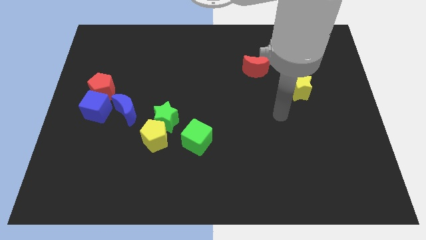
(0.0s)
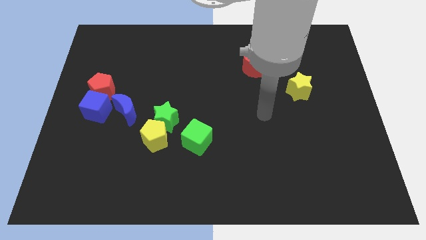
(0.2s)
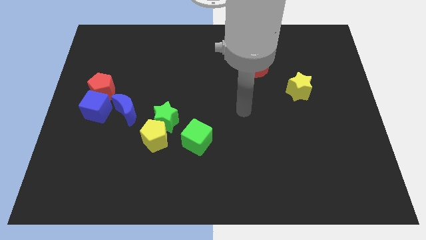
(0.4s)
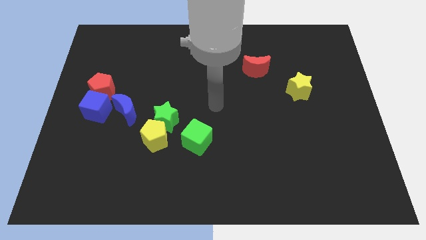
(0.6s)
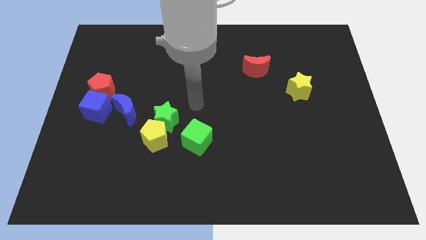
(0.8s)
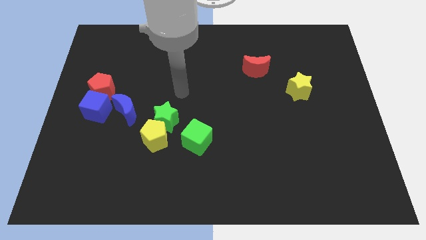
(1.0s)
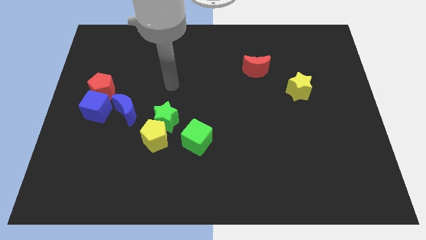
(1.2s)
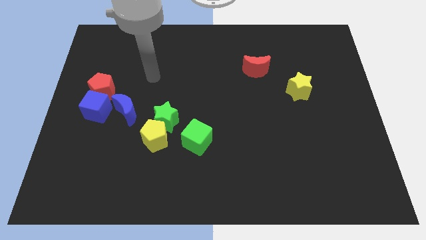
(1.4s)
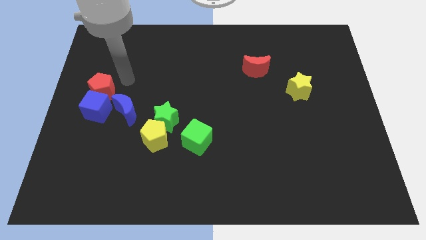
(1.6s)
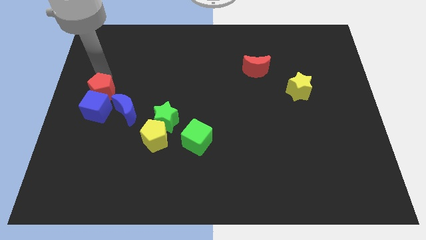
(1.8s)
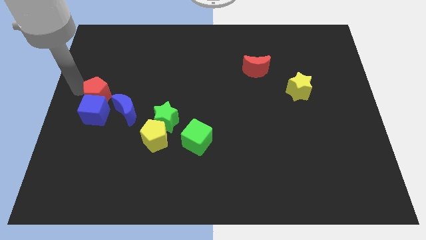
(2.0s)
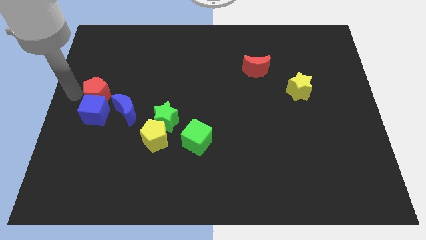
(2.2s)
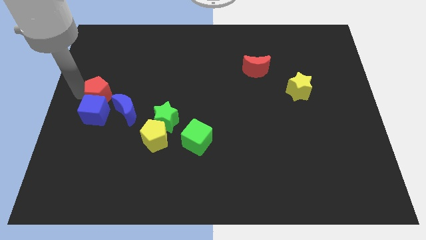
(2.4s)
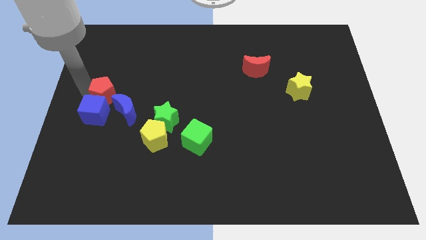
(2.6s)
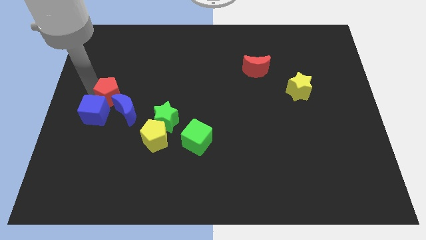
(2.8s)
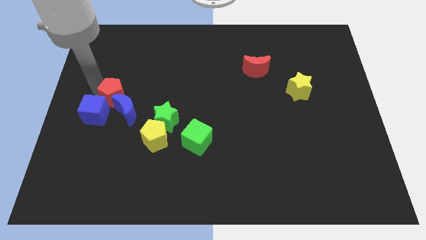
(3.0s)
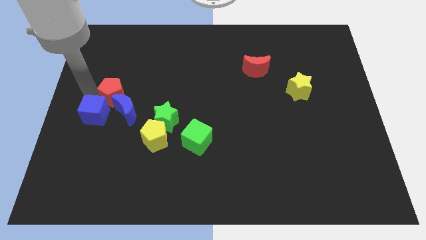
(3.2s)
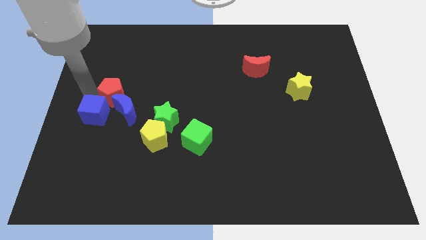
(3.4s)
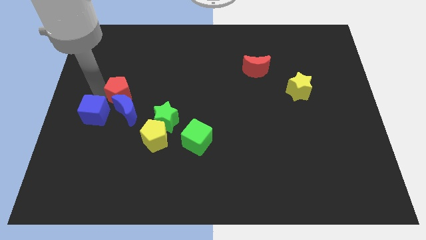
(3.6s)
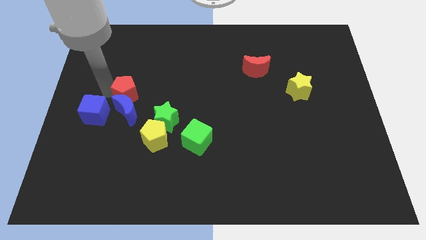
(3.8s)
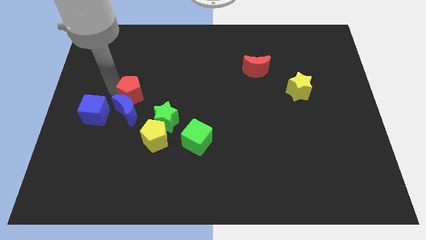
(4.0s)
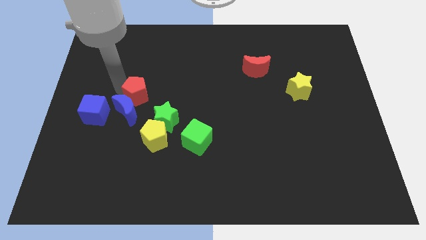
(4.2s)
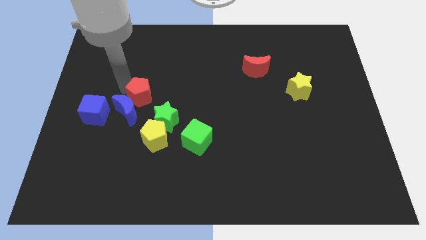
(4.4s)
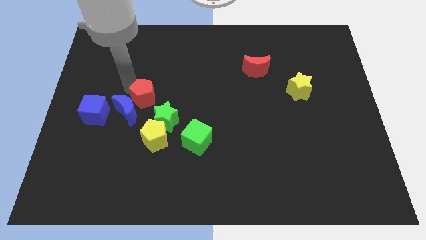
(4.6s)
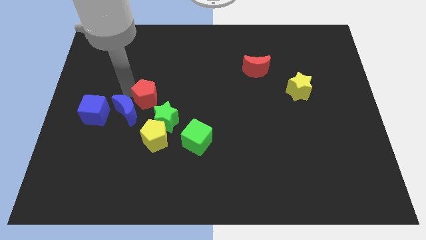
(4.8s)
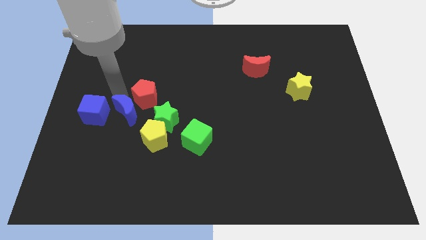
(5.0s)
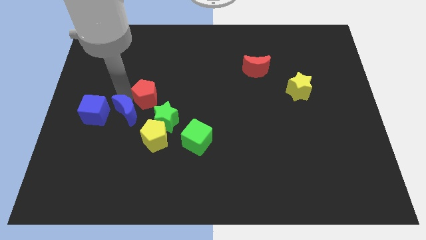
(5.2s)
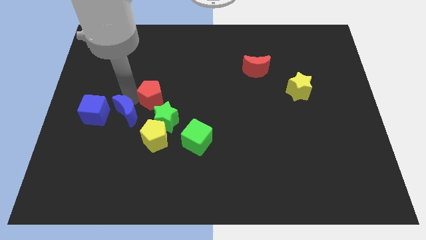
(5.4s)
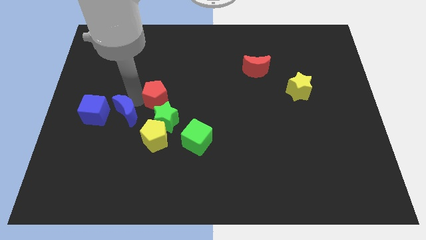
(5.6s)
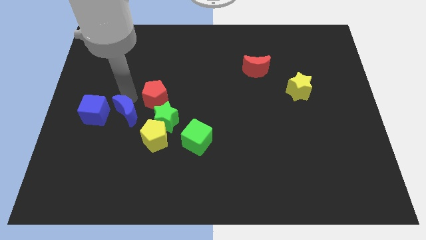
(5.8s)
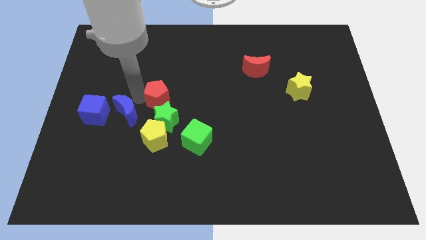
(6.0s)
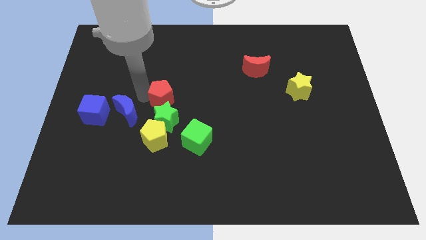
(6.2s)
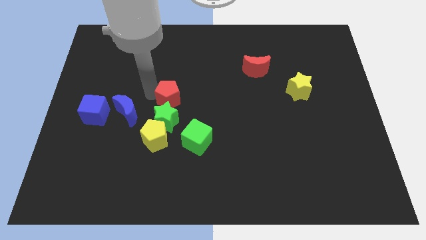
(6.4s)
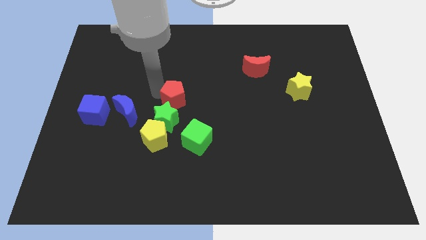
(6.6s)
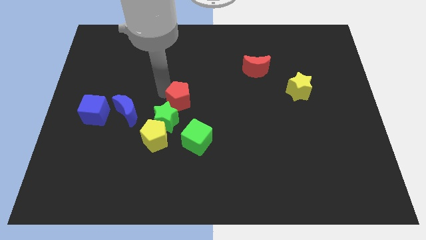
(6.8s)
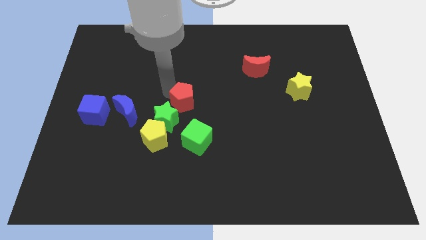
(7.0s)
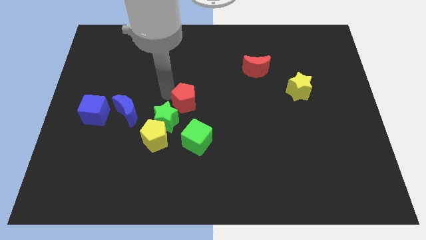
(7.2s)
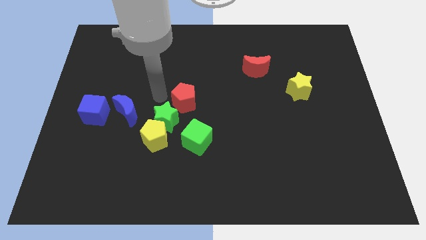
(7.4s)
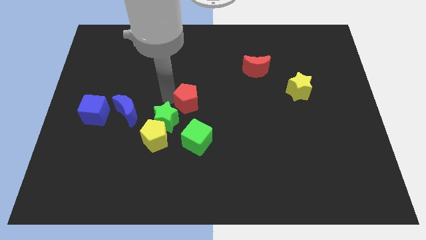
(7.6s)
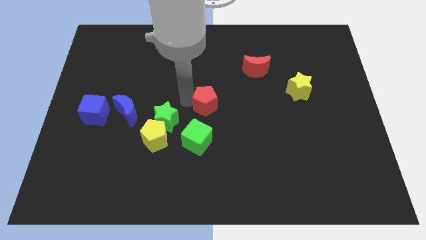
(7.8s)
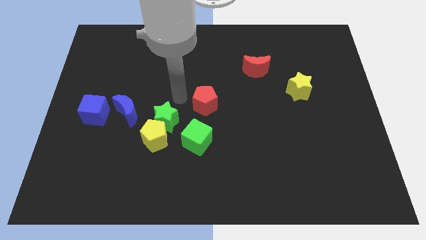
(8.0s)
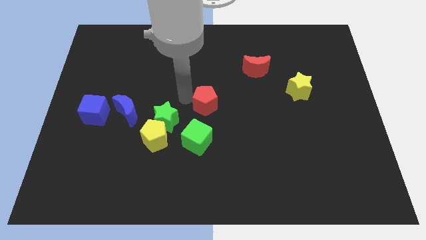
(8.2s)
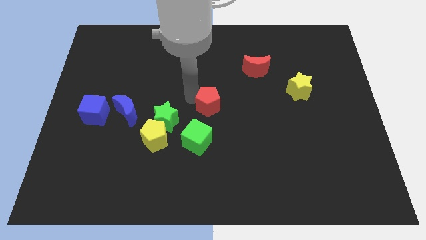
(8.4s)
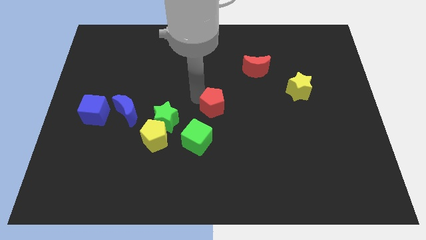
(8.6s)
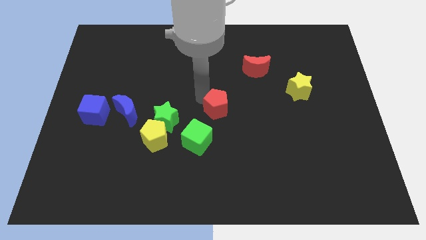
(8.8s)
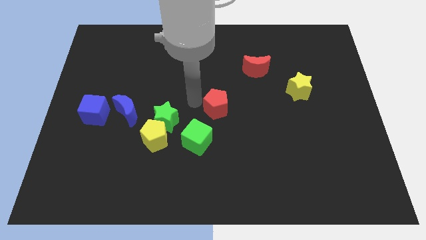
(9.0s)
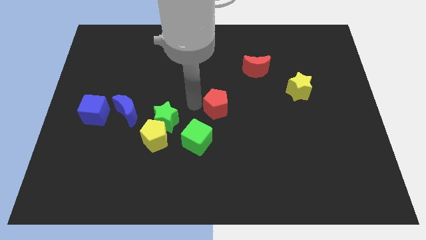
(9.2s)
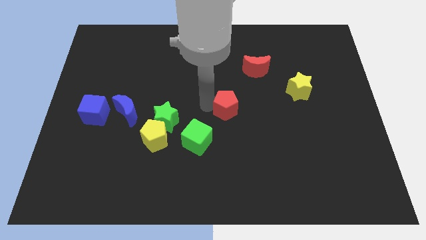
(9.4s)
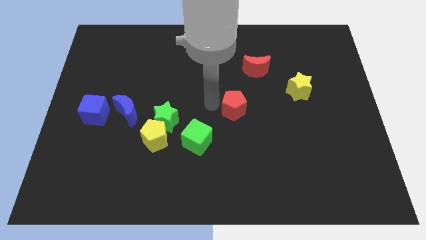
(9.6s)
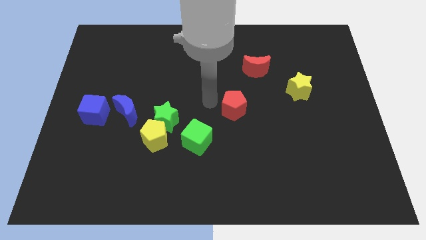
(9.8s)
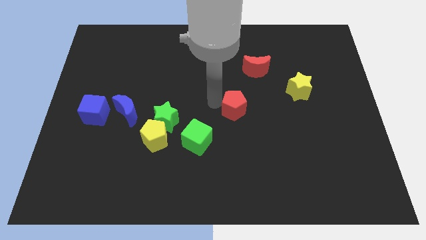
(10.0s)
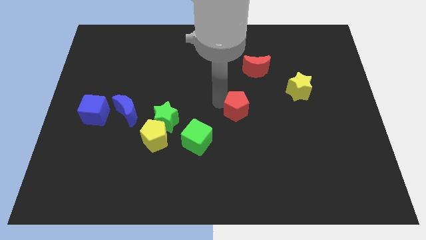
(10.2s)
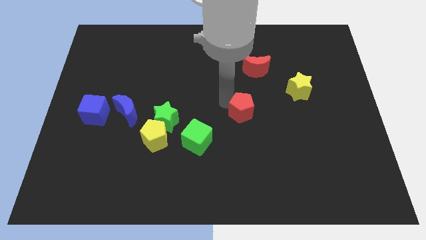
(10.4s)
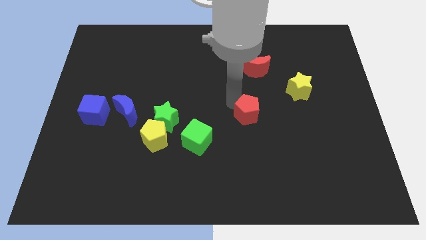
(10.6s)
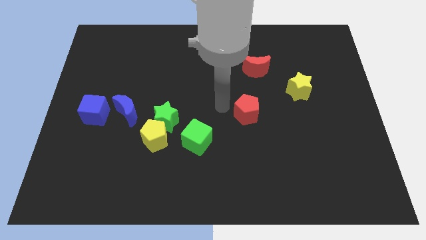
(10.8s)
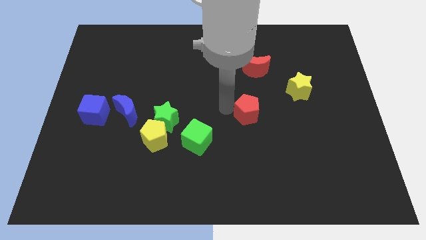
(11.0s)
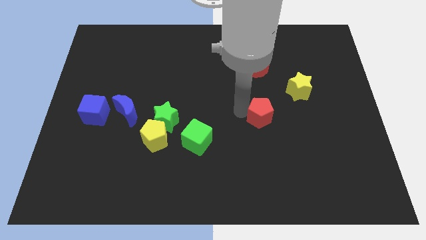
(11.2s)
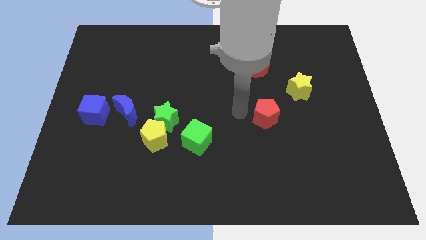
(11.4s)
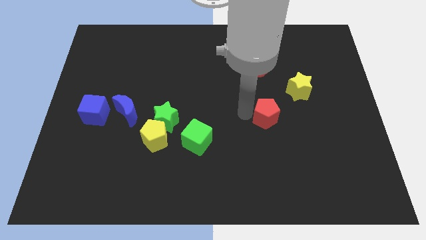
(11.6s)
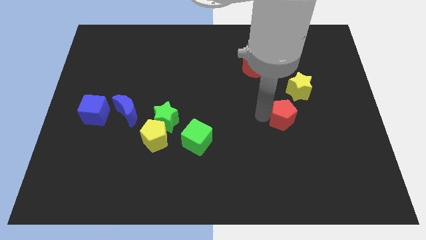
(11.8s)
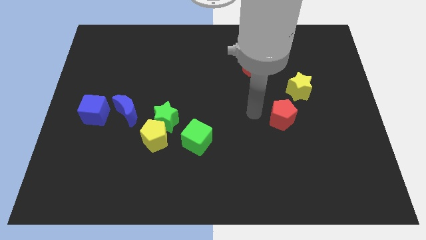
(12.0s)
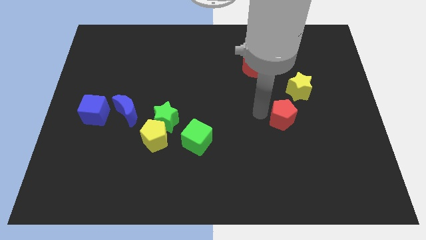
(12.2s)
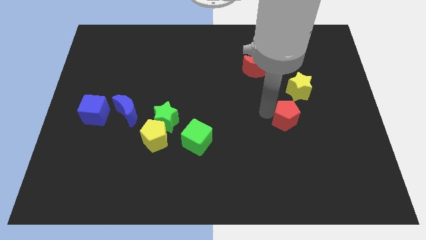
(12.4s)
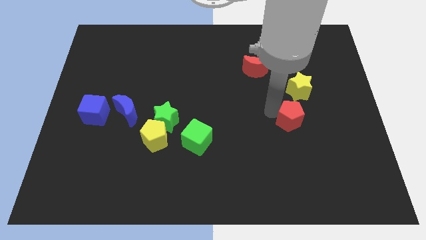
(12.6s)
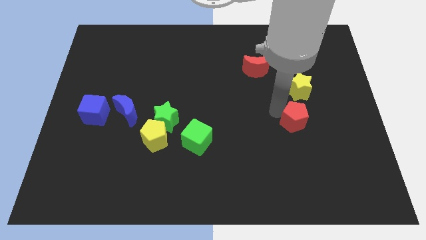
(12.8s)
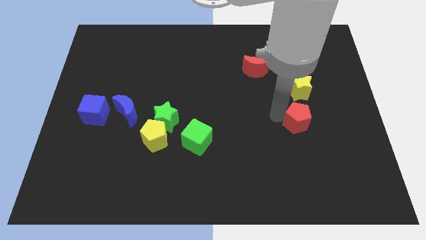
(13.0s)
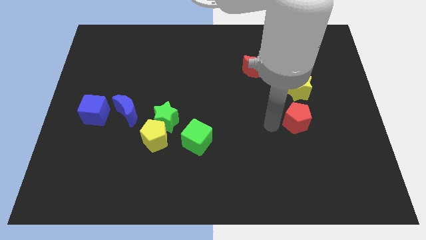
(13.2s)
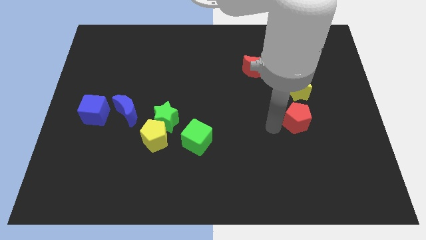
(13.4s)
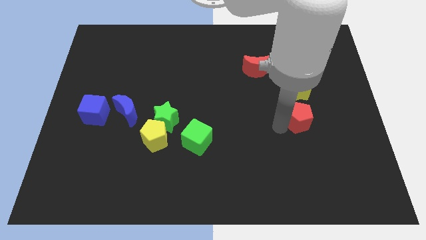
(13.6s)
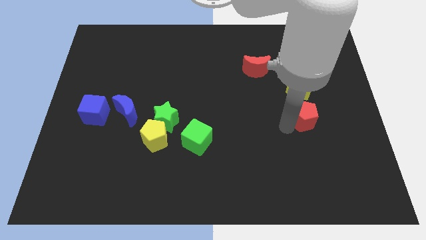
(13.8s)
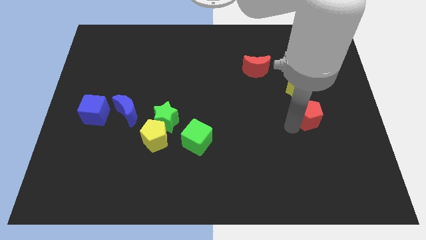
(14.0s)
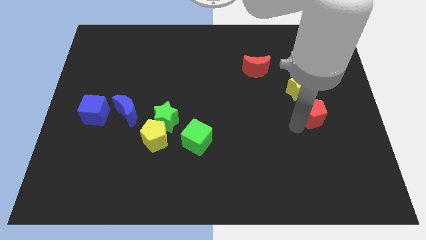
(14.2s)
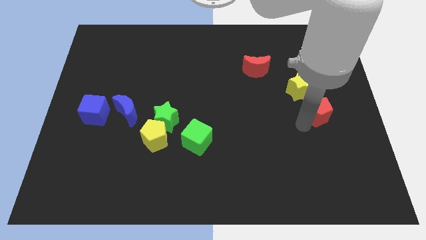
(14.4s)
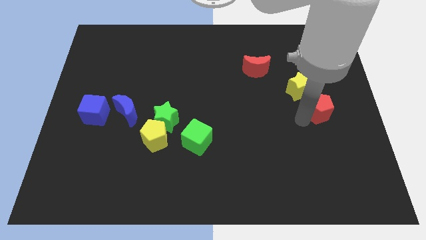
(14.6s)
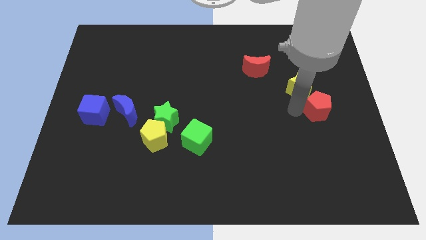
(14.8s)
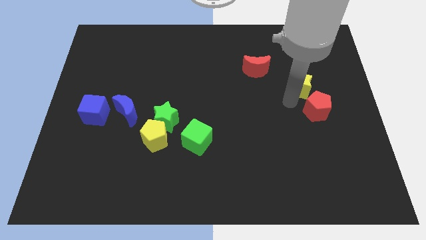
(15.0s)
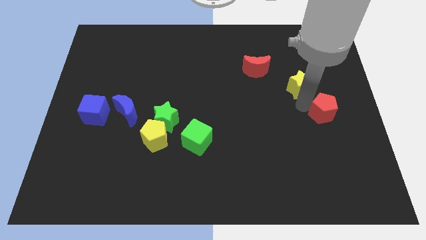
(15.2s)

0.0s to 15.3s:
slide the red pentagon to the right side of the board
